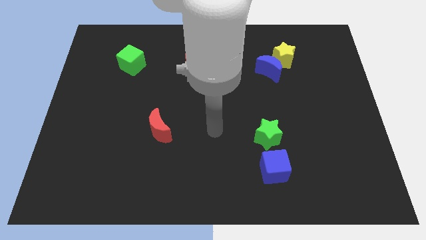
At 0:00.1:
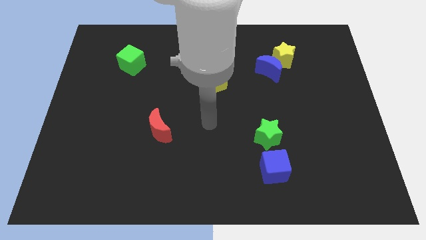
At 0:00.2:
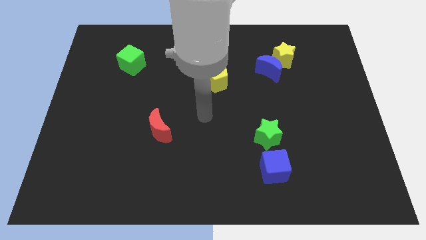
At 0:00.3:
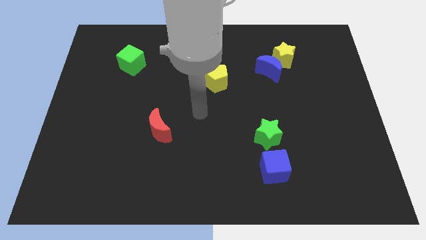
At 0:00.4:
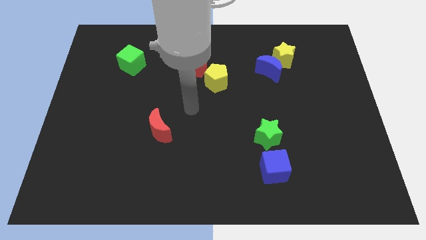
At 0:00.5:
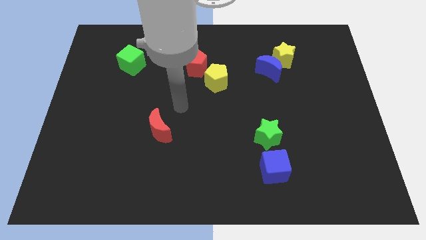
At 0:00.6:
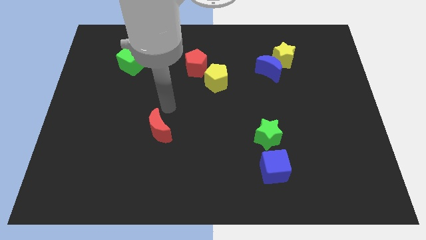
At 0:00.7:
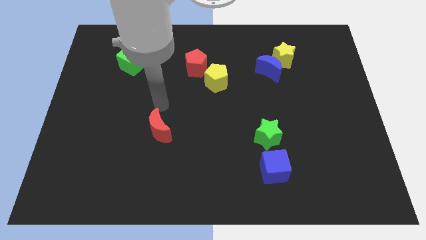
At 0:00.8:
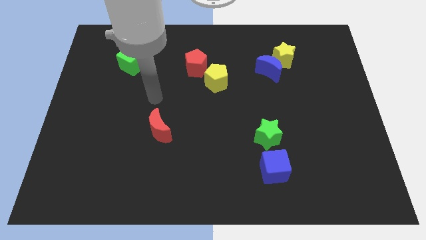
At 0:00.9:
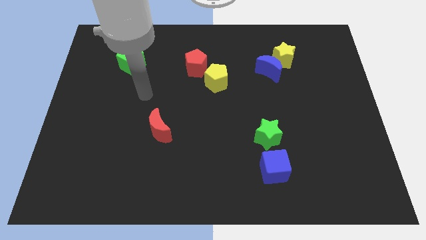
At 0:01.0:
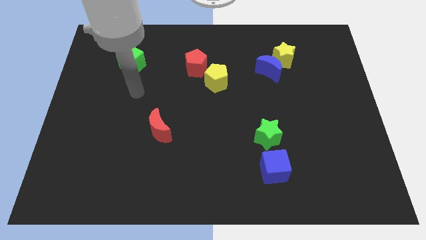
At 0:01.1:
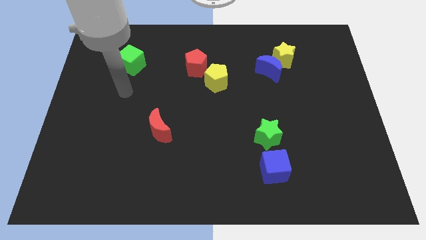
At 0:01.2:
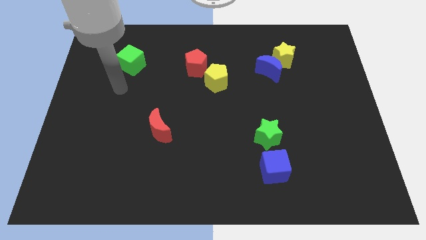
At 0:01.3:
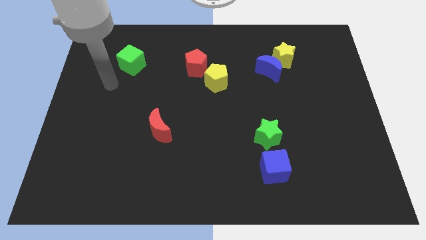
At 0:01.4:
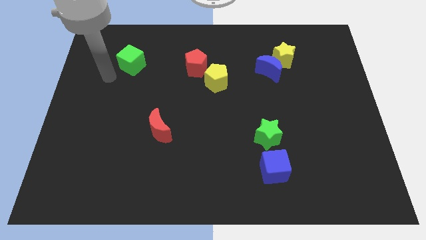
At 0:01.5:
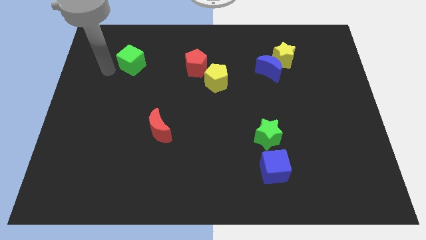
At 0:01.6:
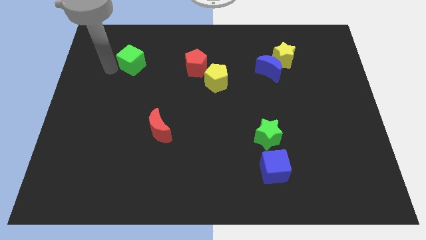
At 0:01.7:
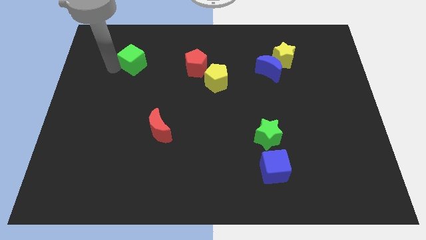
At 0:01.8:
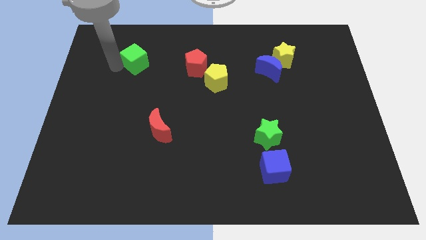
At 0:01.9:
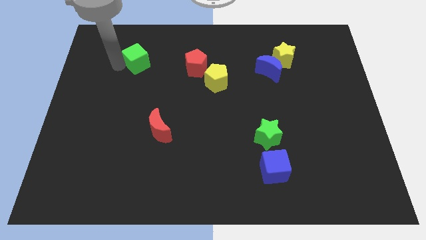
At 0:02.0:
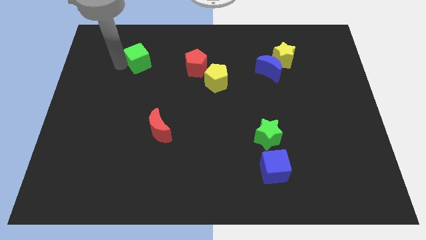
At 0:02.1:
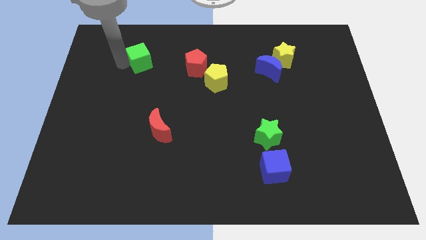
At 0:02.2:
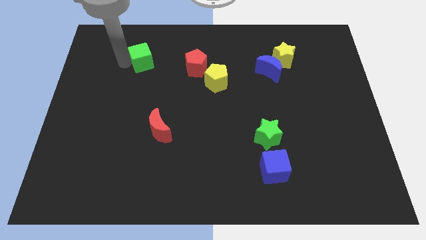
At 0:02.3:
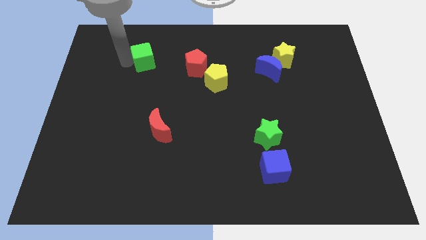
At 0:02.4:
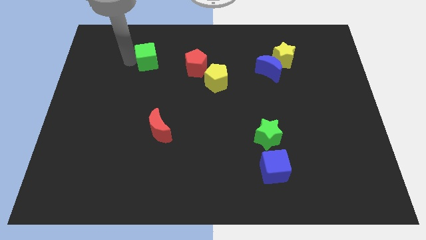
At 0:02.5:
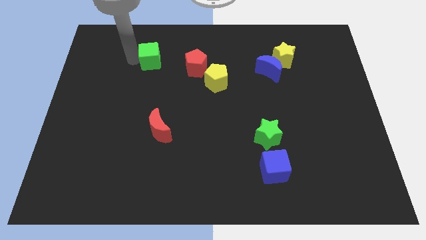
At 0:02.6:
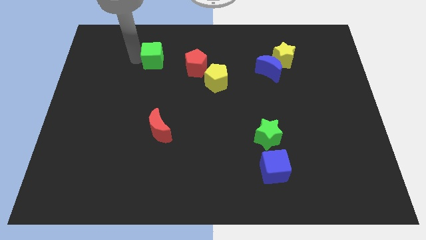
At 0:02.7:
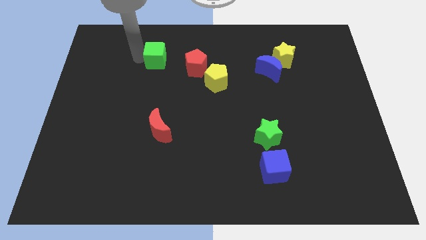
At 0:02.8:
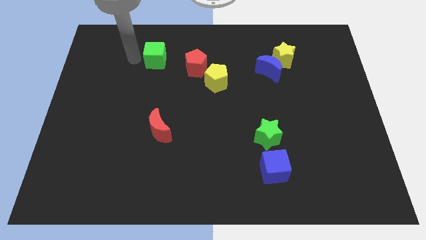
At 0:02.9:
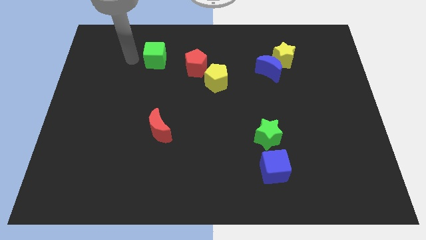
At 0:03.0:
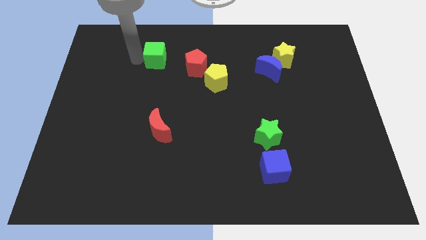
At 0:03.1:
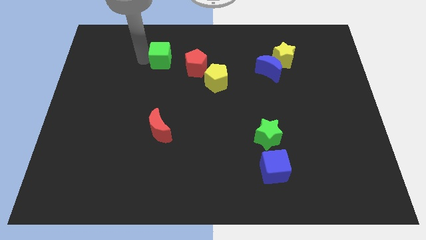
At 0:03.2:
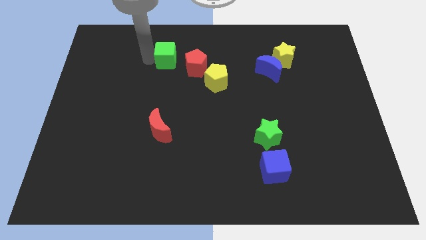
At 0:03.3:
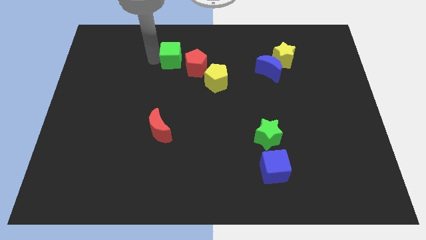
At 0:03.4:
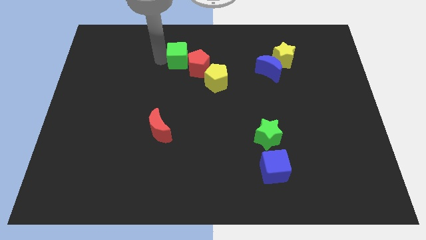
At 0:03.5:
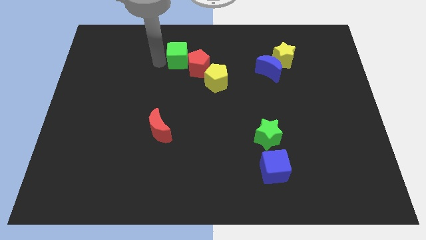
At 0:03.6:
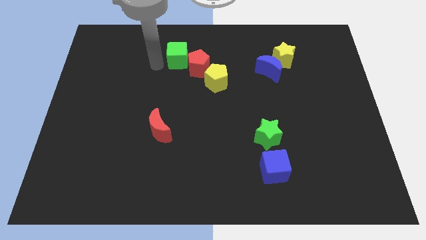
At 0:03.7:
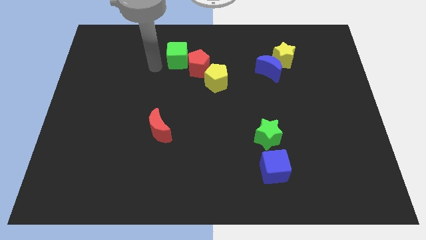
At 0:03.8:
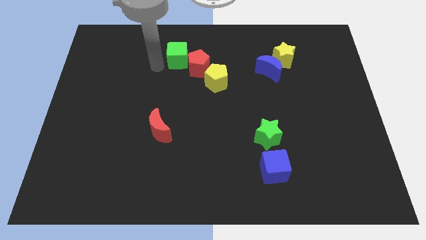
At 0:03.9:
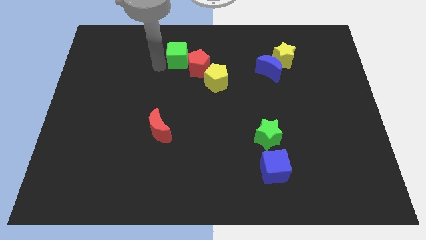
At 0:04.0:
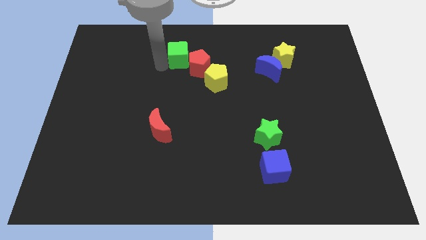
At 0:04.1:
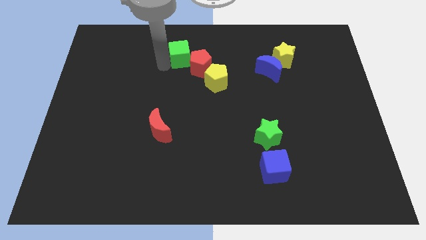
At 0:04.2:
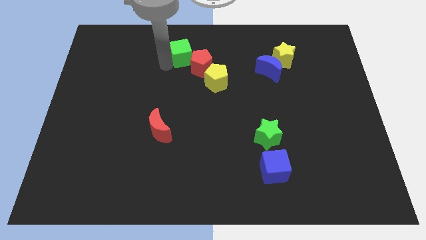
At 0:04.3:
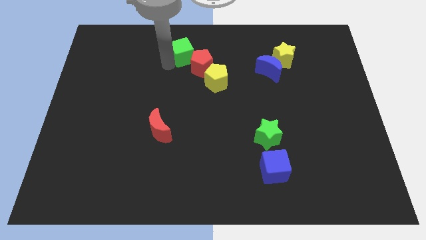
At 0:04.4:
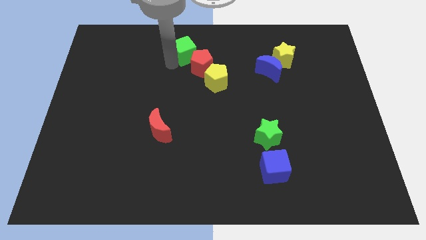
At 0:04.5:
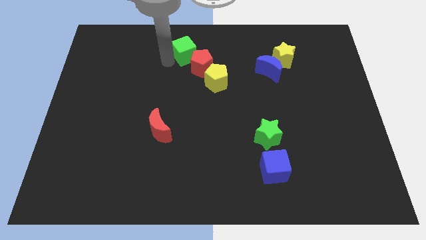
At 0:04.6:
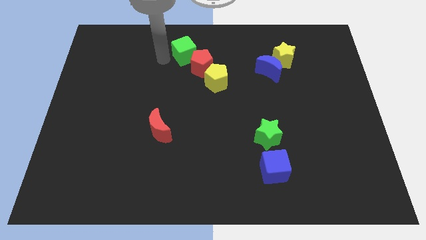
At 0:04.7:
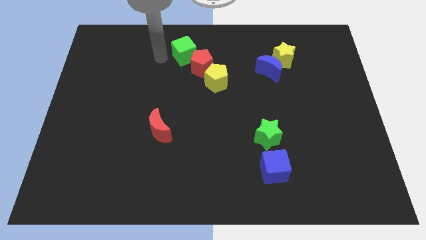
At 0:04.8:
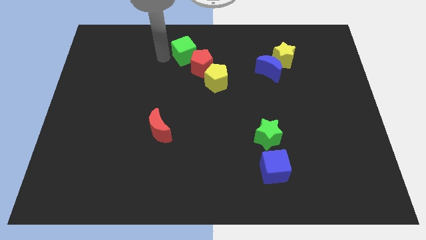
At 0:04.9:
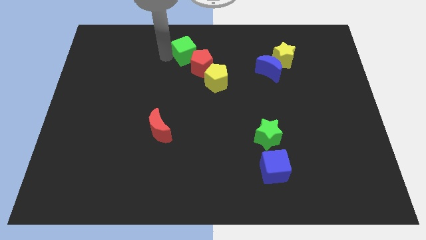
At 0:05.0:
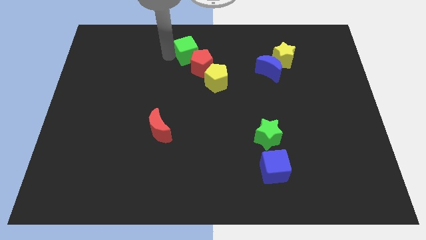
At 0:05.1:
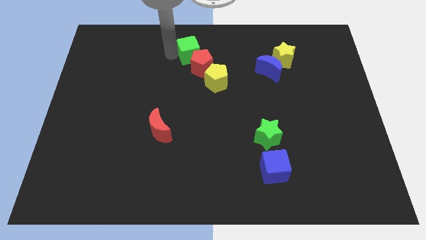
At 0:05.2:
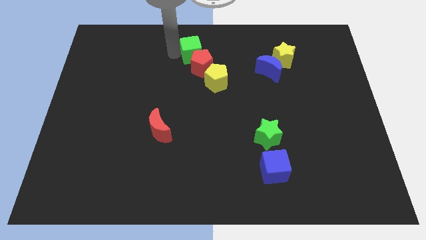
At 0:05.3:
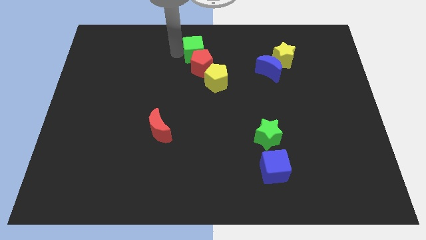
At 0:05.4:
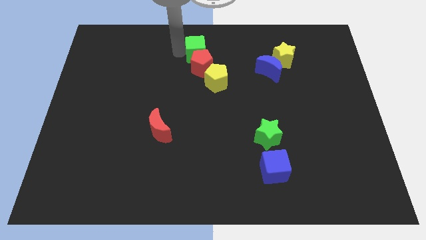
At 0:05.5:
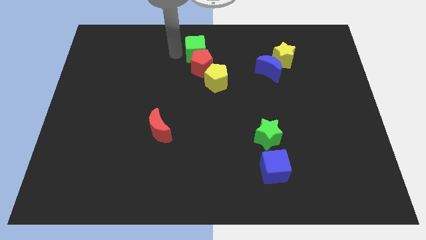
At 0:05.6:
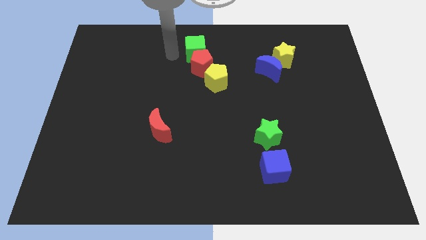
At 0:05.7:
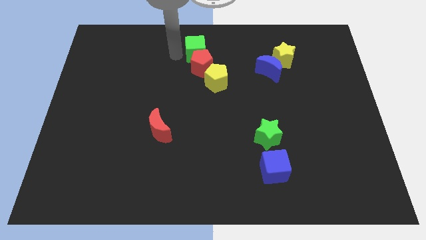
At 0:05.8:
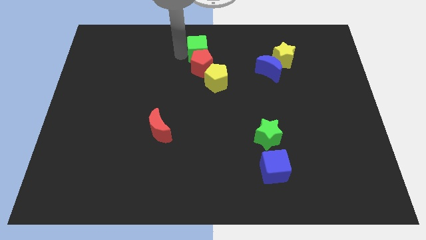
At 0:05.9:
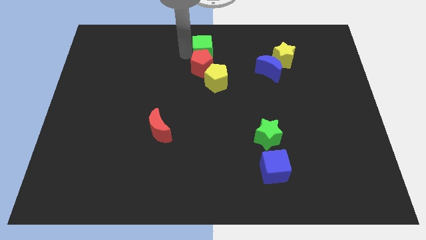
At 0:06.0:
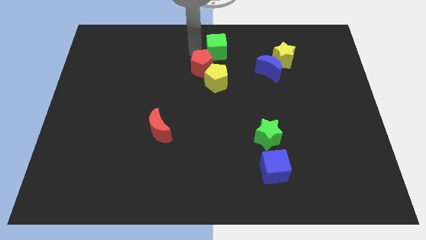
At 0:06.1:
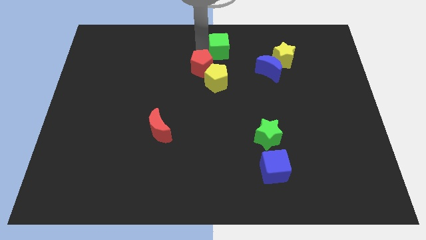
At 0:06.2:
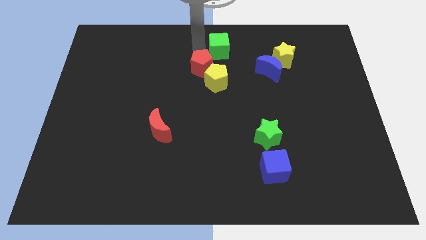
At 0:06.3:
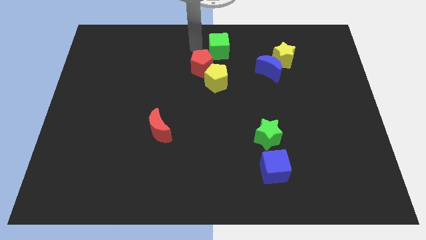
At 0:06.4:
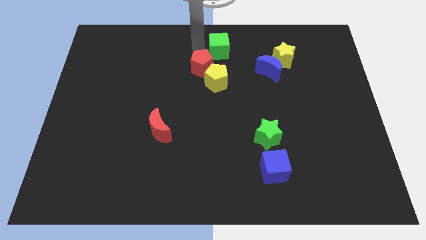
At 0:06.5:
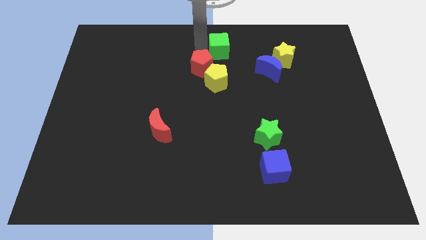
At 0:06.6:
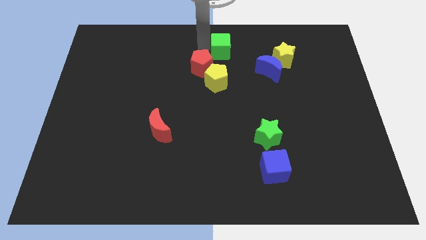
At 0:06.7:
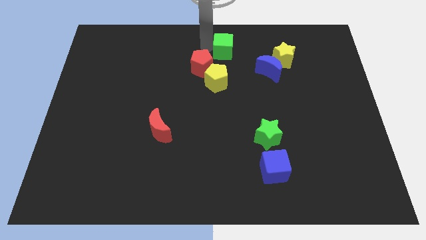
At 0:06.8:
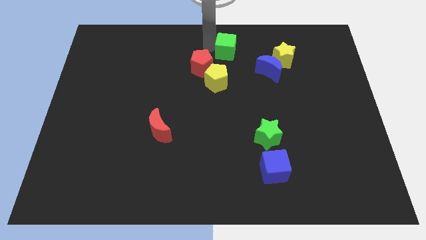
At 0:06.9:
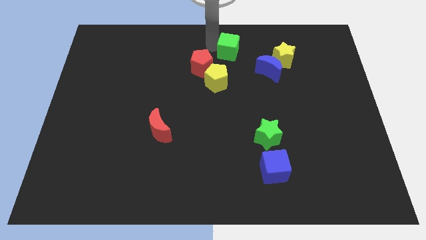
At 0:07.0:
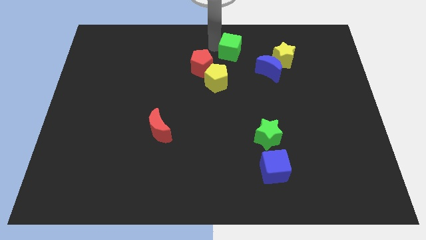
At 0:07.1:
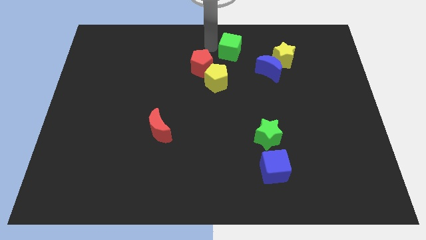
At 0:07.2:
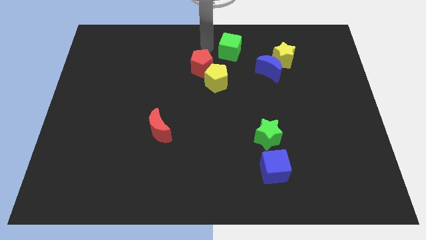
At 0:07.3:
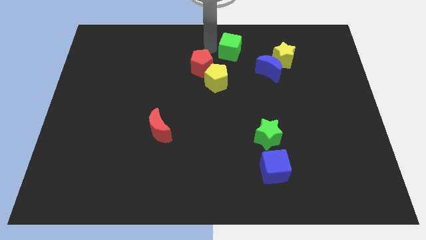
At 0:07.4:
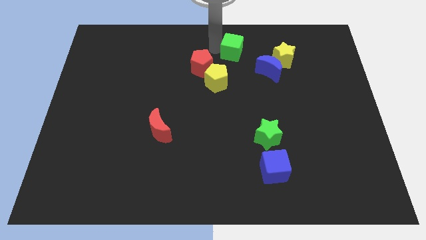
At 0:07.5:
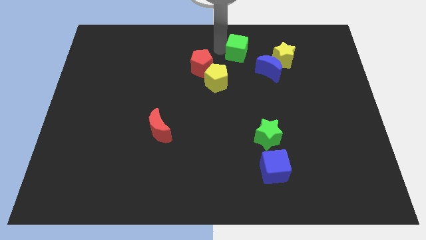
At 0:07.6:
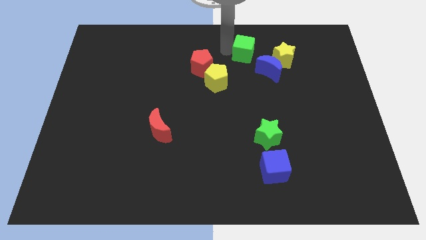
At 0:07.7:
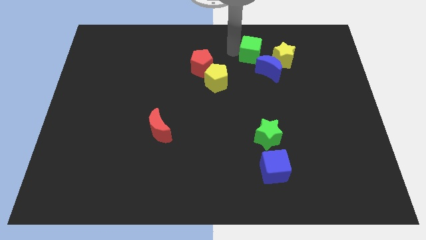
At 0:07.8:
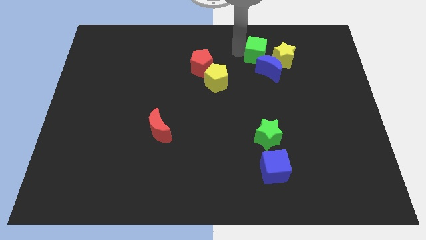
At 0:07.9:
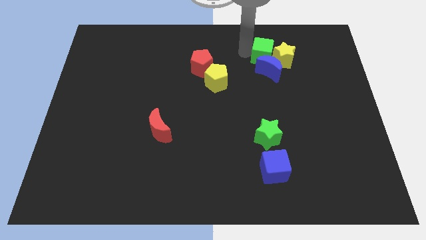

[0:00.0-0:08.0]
push the green cube towards the yellow star

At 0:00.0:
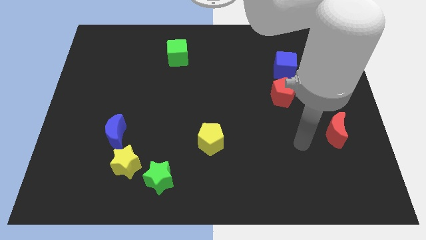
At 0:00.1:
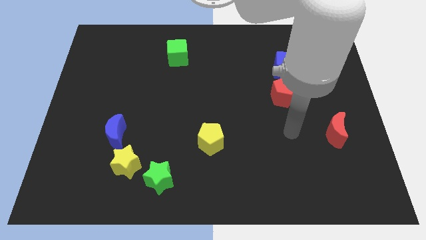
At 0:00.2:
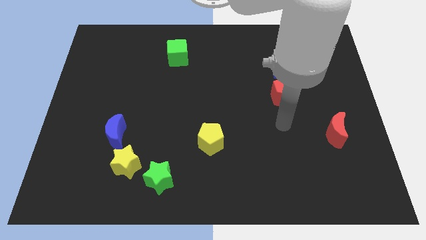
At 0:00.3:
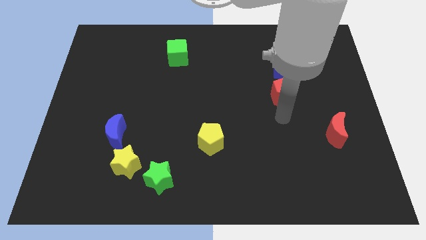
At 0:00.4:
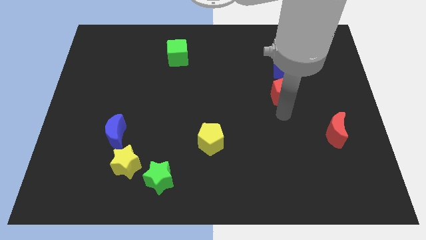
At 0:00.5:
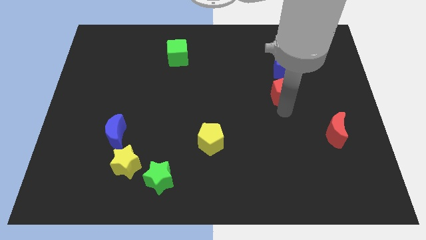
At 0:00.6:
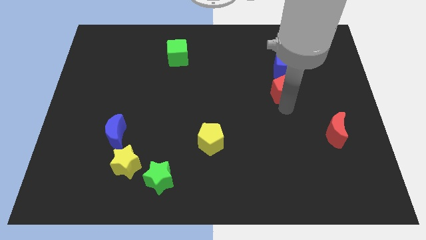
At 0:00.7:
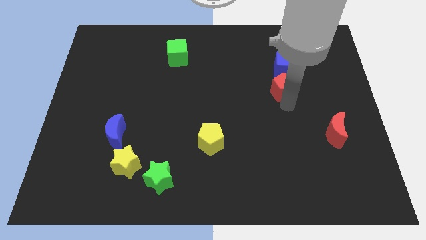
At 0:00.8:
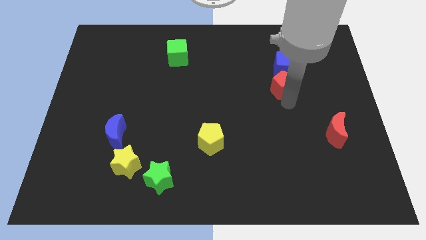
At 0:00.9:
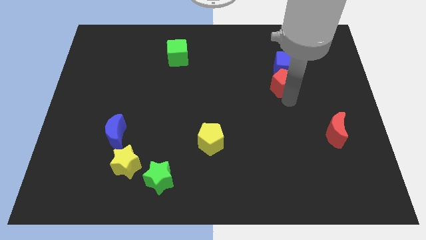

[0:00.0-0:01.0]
slide the red pentagon towards the blue cube
